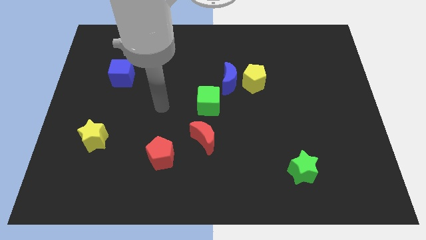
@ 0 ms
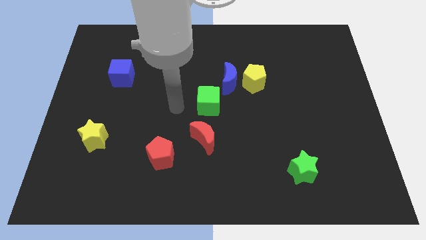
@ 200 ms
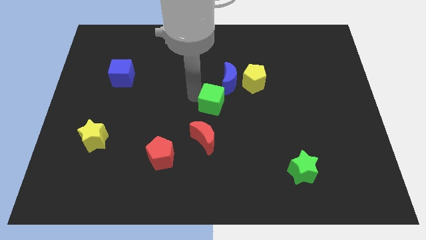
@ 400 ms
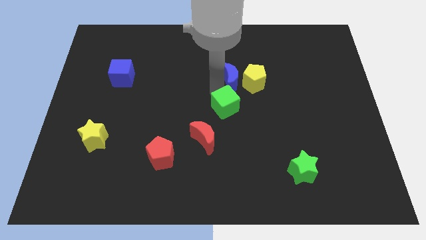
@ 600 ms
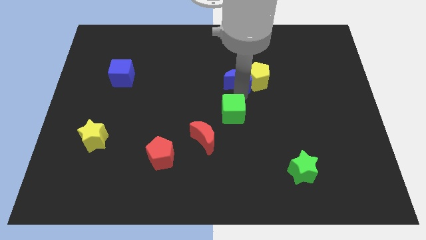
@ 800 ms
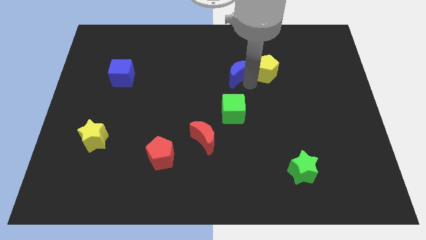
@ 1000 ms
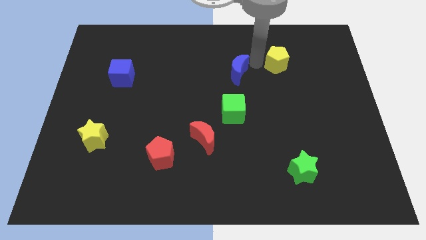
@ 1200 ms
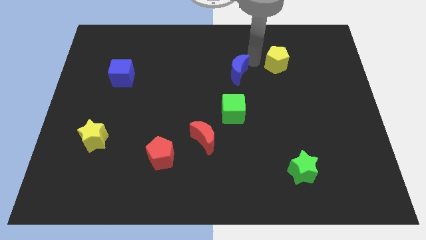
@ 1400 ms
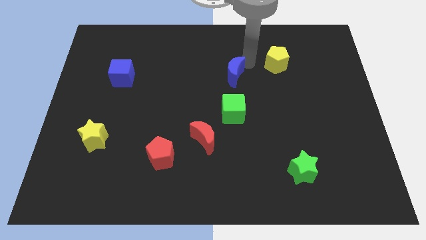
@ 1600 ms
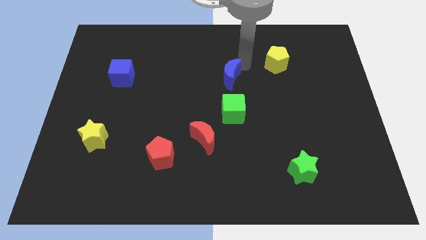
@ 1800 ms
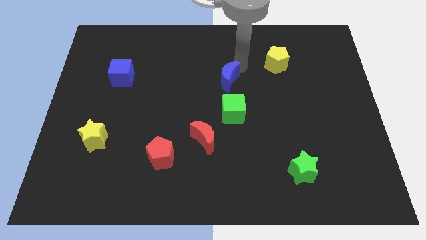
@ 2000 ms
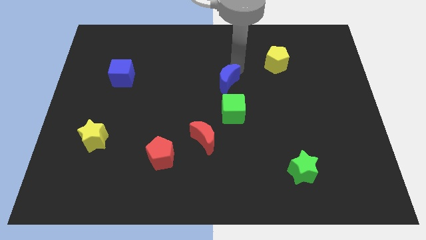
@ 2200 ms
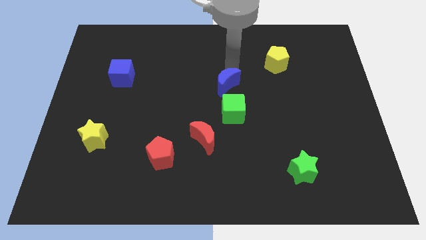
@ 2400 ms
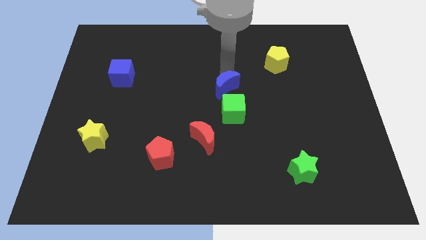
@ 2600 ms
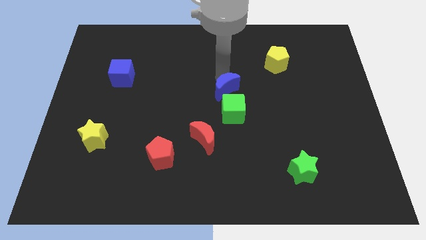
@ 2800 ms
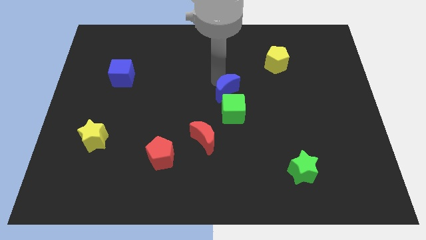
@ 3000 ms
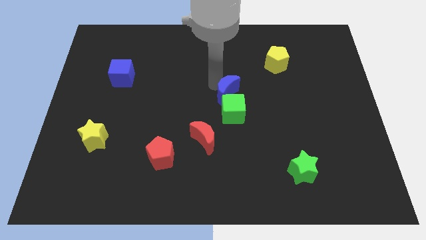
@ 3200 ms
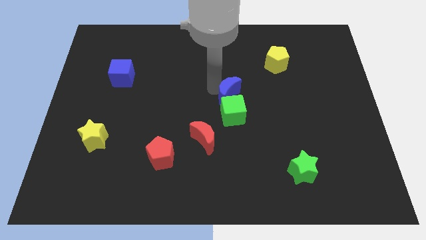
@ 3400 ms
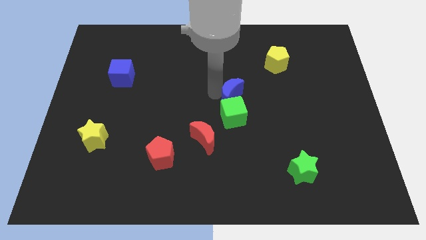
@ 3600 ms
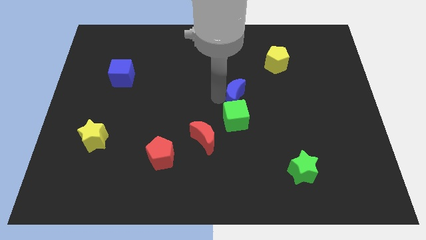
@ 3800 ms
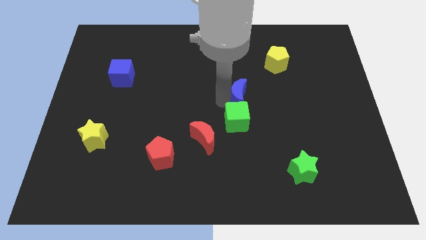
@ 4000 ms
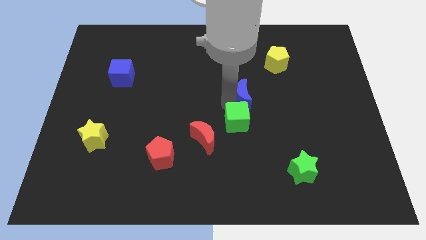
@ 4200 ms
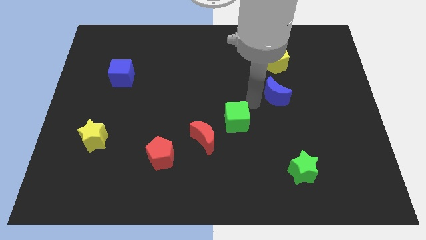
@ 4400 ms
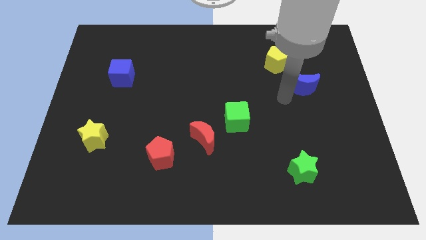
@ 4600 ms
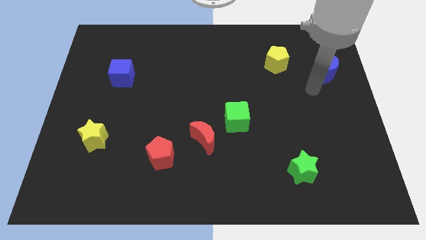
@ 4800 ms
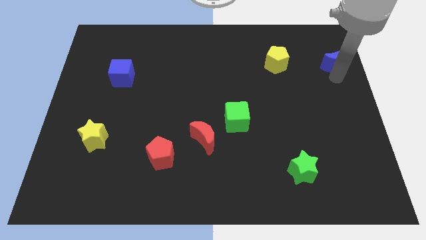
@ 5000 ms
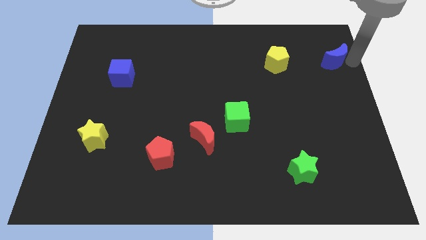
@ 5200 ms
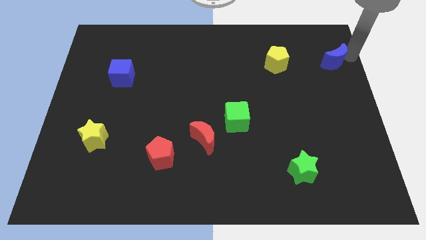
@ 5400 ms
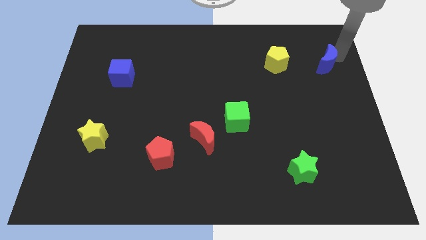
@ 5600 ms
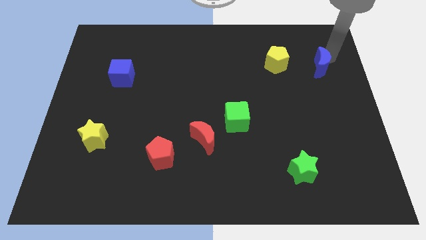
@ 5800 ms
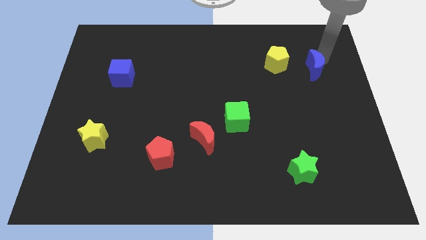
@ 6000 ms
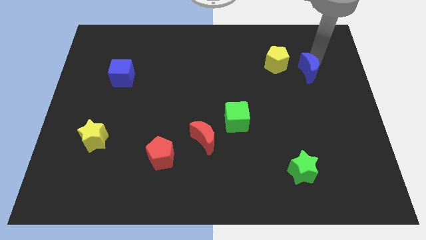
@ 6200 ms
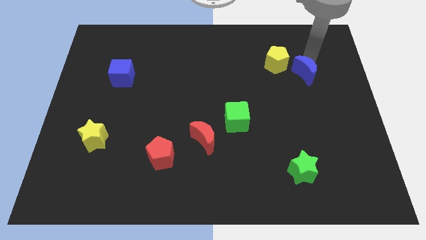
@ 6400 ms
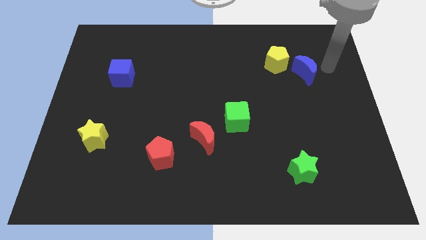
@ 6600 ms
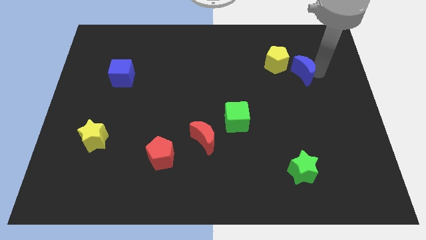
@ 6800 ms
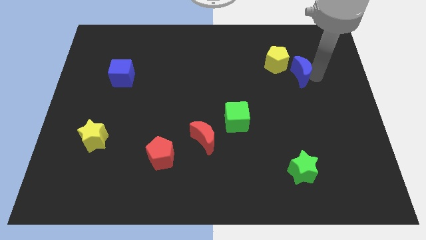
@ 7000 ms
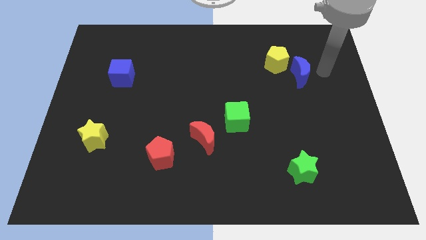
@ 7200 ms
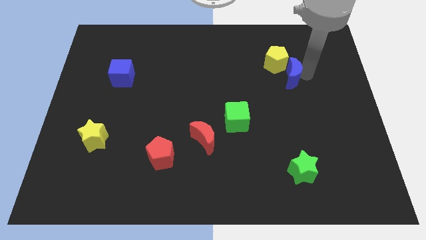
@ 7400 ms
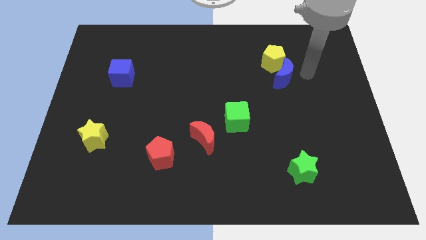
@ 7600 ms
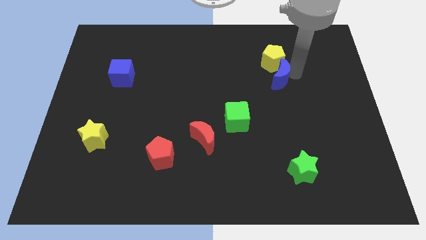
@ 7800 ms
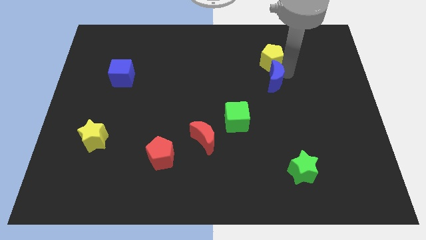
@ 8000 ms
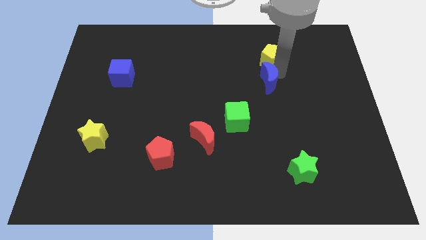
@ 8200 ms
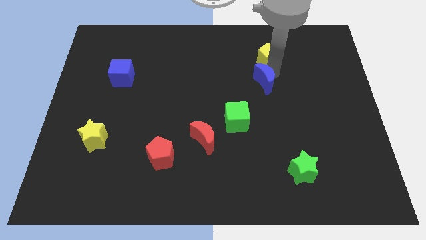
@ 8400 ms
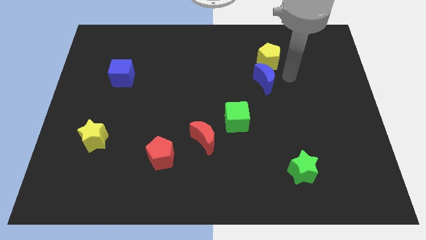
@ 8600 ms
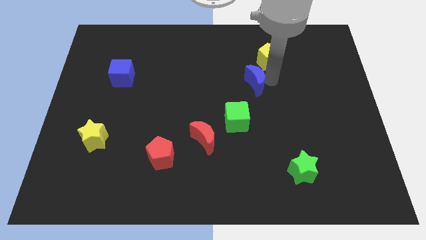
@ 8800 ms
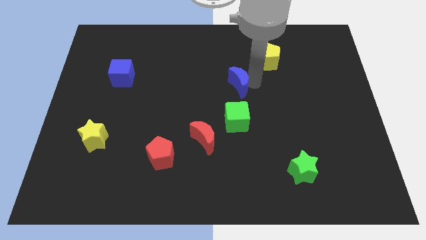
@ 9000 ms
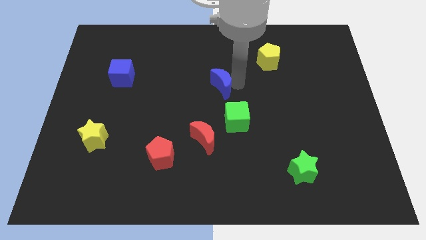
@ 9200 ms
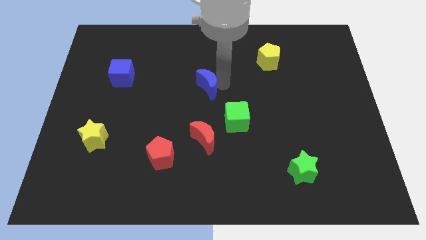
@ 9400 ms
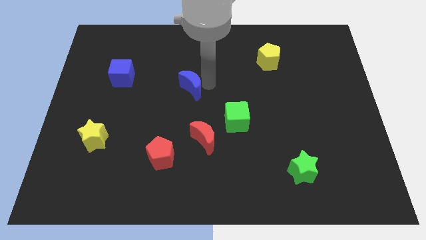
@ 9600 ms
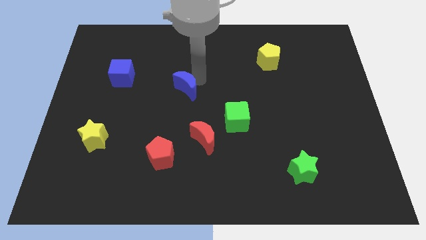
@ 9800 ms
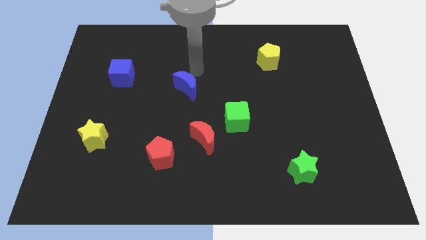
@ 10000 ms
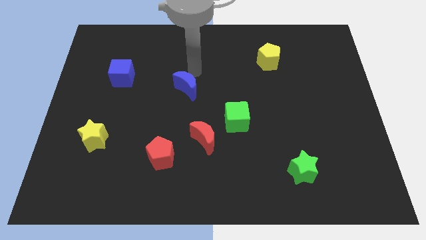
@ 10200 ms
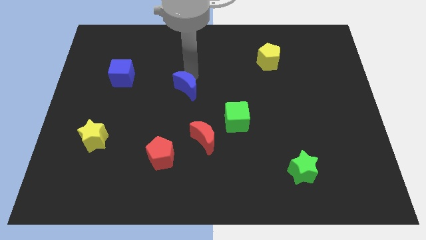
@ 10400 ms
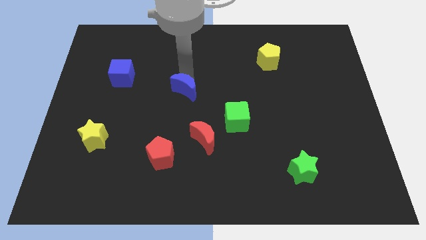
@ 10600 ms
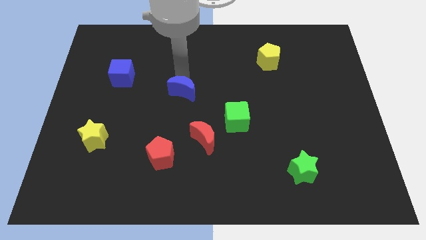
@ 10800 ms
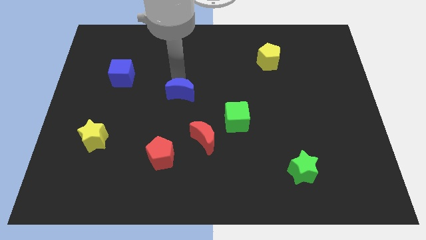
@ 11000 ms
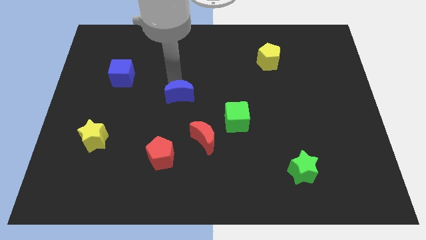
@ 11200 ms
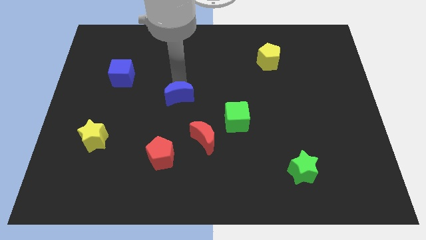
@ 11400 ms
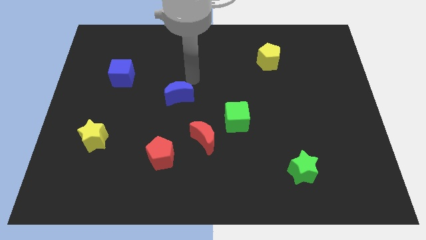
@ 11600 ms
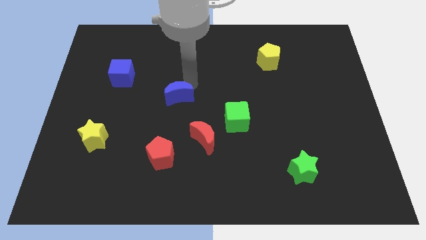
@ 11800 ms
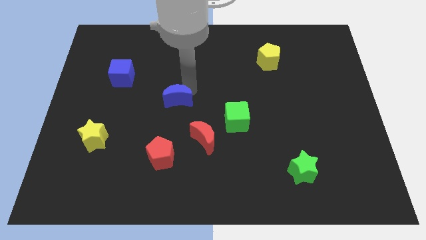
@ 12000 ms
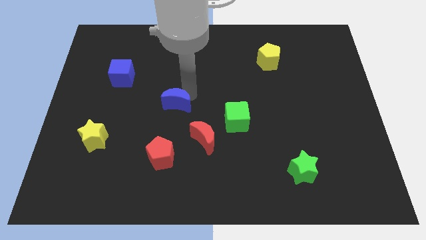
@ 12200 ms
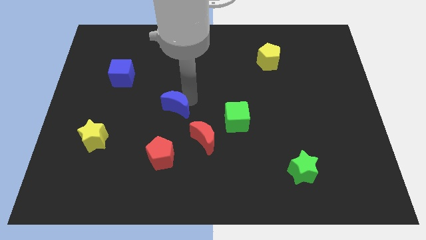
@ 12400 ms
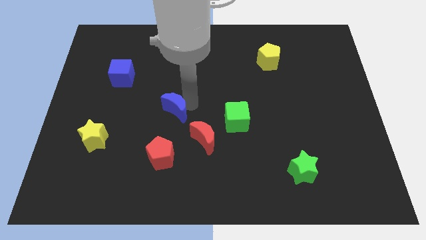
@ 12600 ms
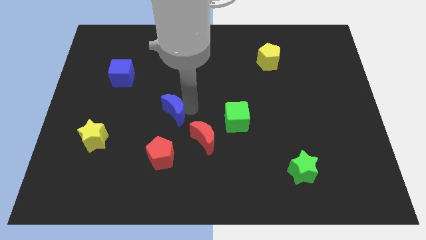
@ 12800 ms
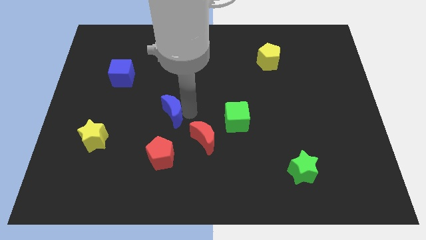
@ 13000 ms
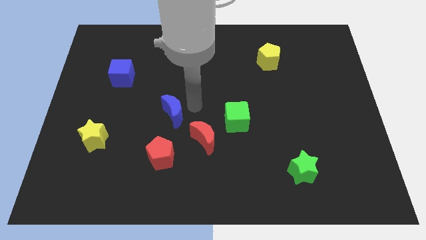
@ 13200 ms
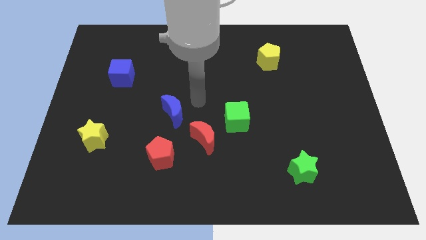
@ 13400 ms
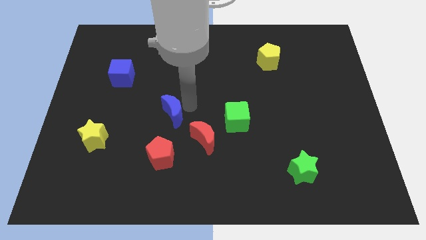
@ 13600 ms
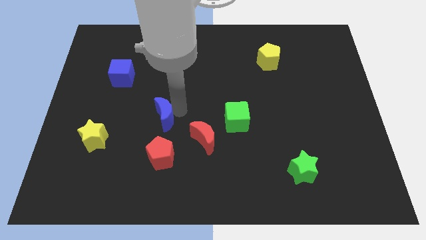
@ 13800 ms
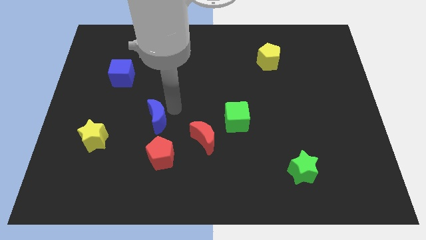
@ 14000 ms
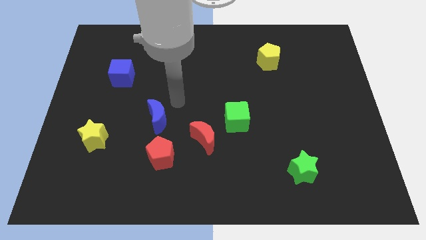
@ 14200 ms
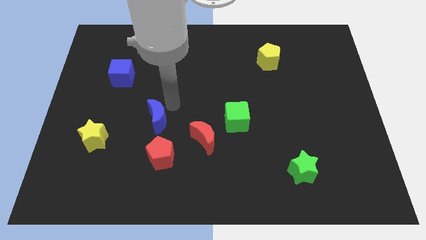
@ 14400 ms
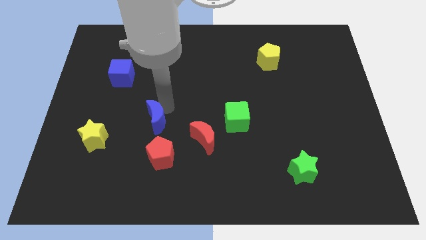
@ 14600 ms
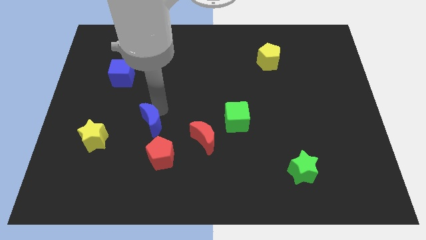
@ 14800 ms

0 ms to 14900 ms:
move the blue moon to the top left side of the red pentagon
